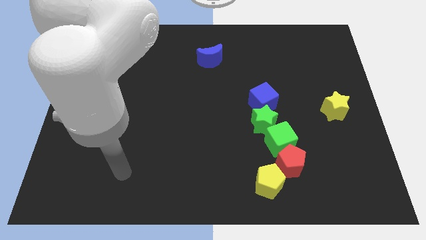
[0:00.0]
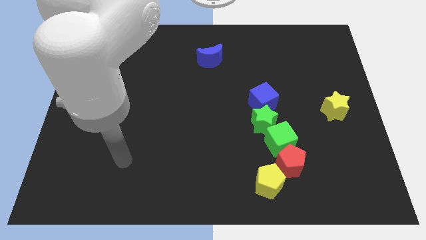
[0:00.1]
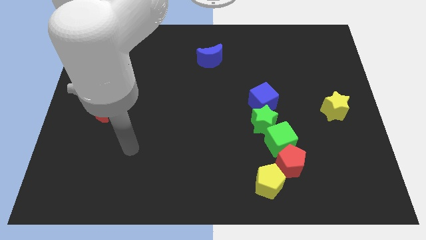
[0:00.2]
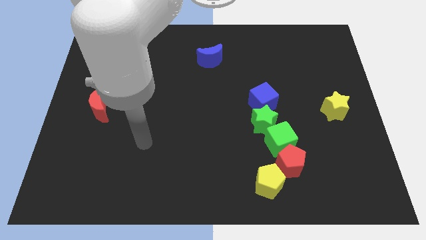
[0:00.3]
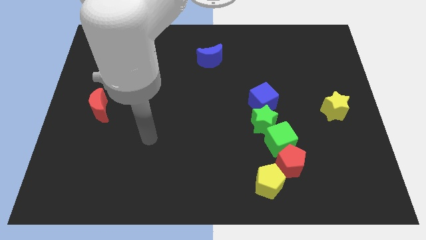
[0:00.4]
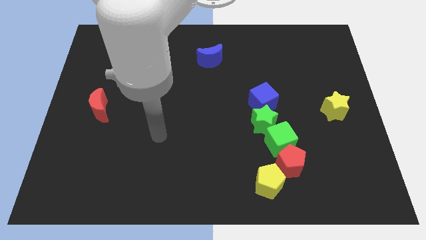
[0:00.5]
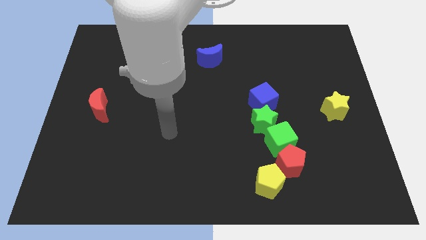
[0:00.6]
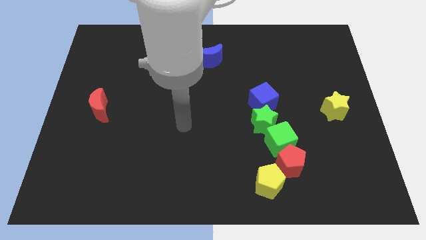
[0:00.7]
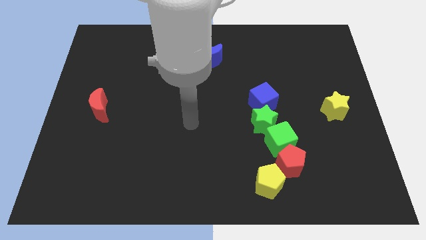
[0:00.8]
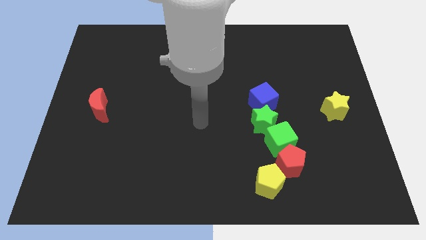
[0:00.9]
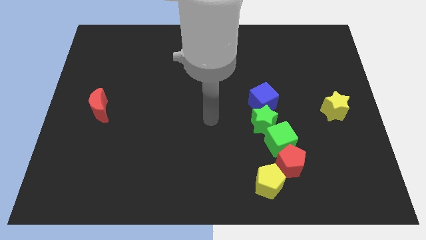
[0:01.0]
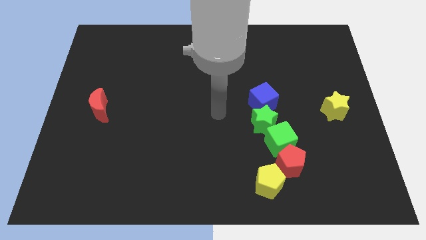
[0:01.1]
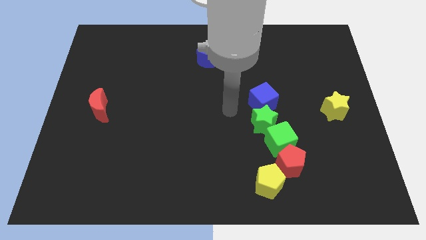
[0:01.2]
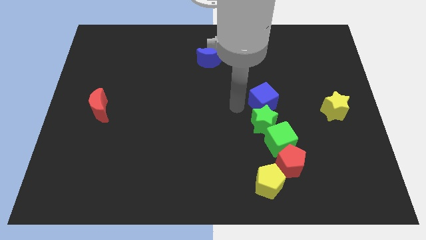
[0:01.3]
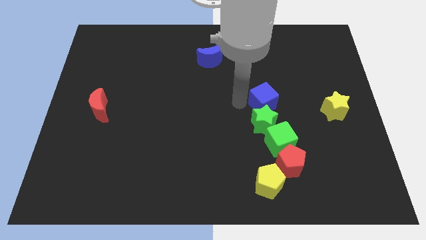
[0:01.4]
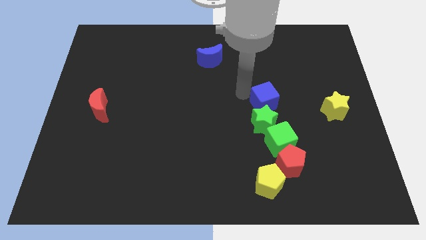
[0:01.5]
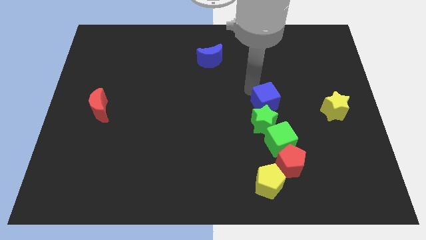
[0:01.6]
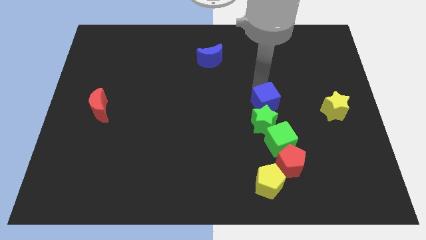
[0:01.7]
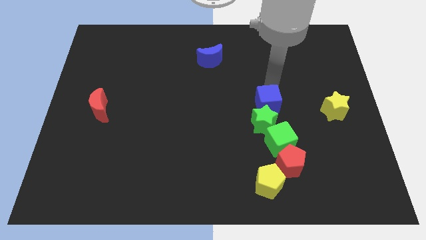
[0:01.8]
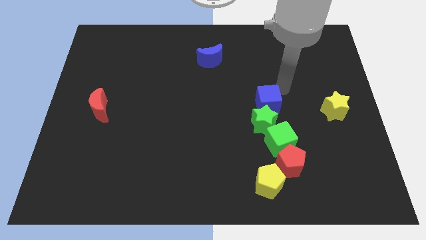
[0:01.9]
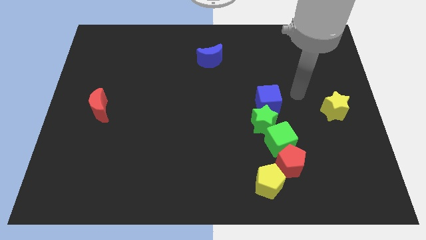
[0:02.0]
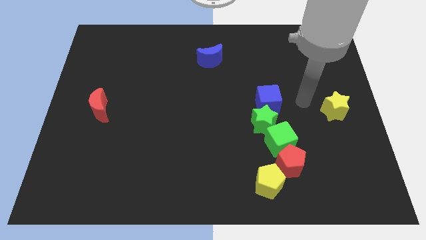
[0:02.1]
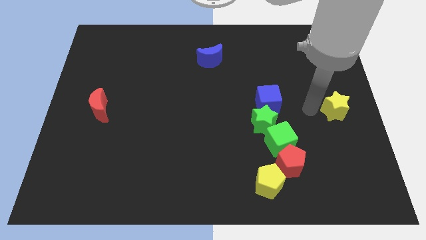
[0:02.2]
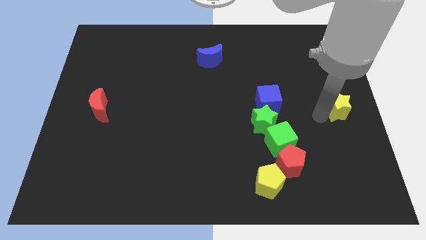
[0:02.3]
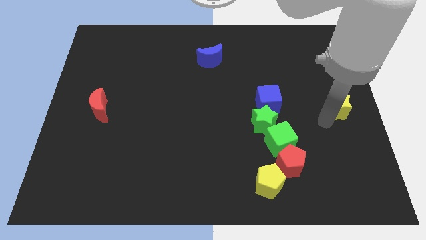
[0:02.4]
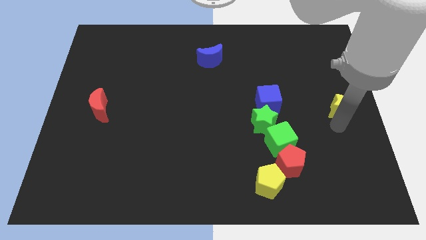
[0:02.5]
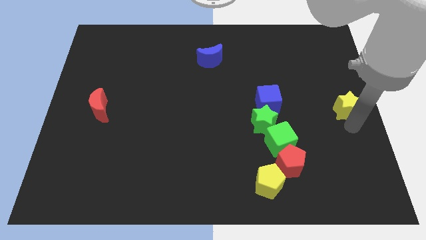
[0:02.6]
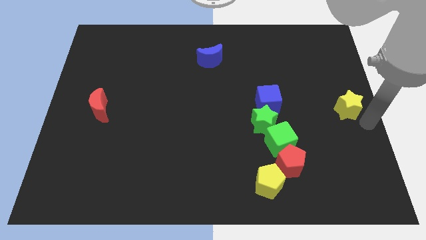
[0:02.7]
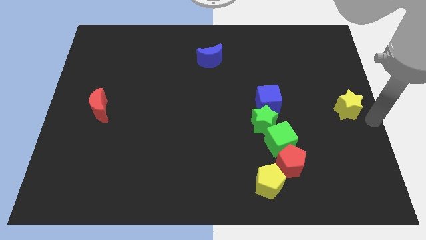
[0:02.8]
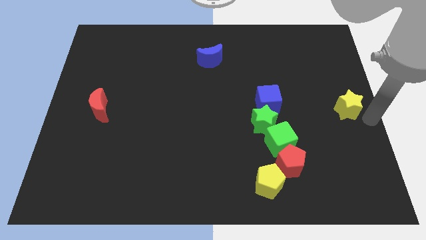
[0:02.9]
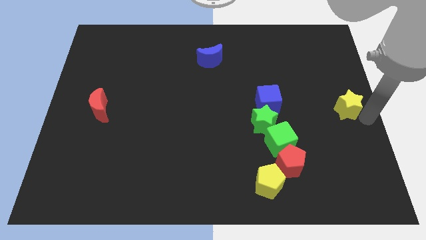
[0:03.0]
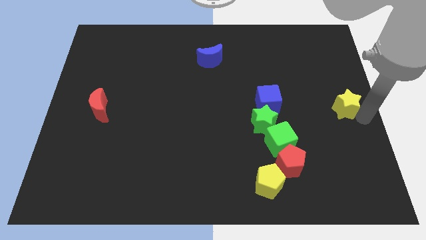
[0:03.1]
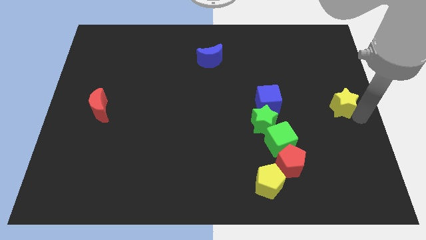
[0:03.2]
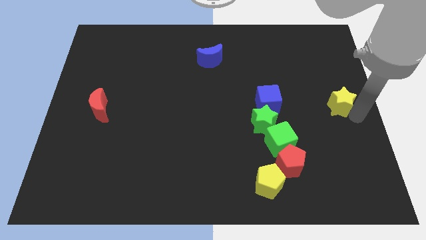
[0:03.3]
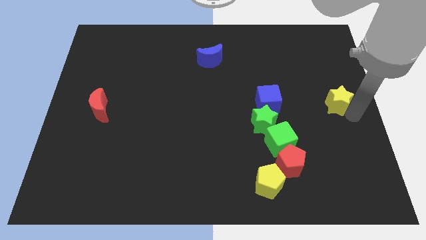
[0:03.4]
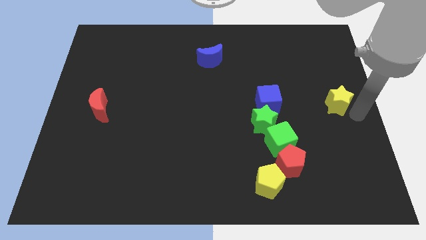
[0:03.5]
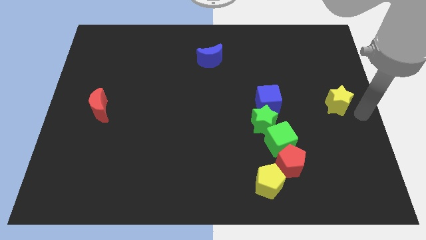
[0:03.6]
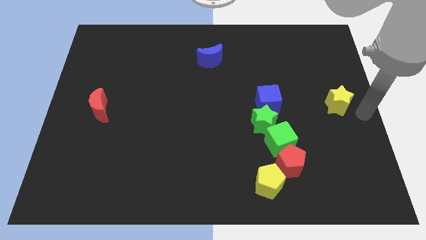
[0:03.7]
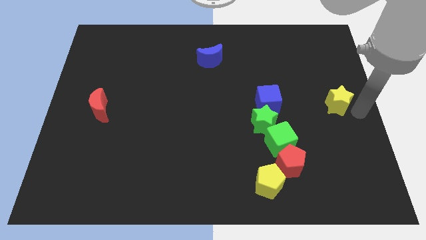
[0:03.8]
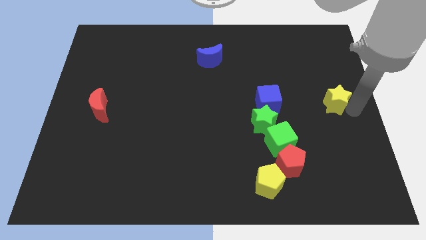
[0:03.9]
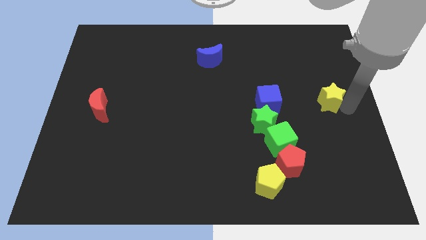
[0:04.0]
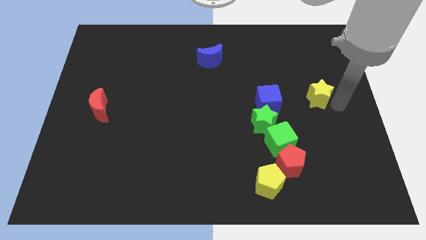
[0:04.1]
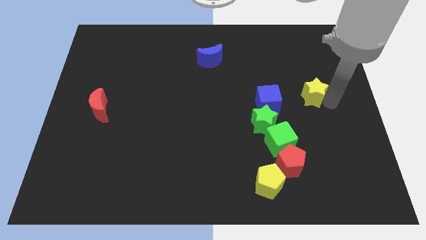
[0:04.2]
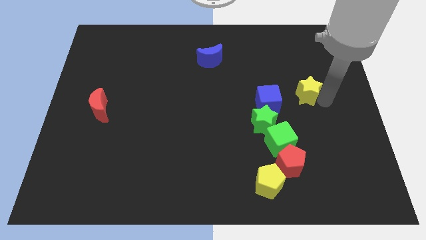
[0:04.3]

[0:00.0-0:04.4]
slightly move the yellow star up and to the left diagonally

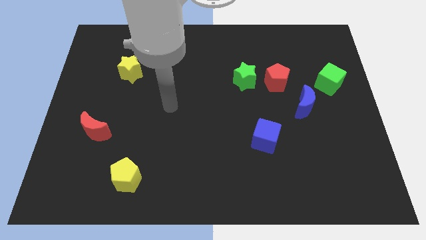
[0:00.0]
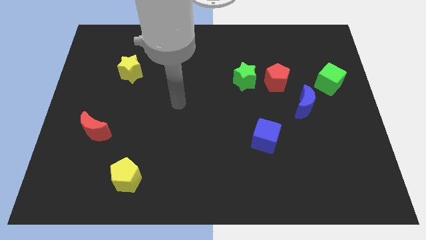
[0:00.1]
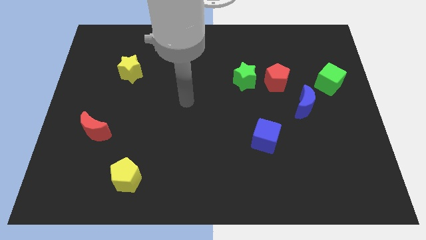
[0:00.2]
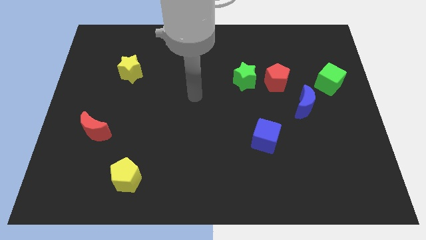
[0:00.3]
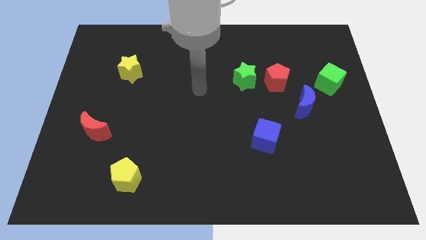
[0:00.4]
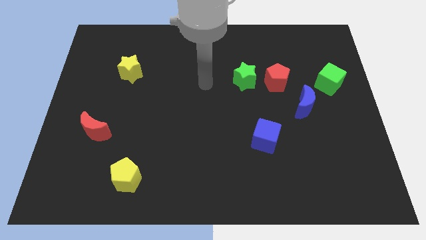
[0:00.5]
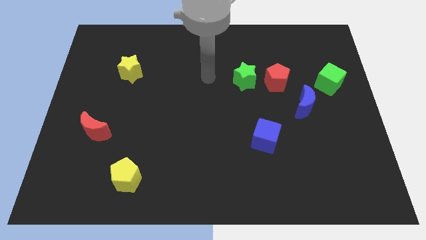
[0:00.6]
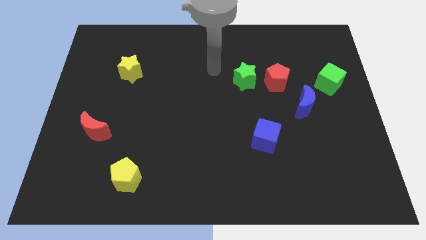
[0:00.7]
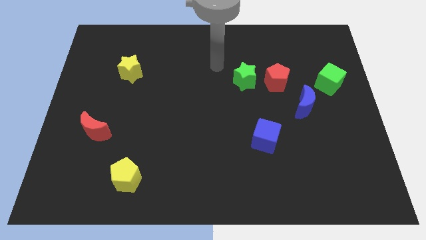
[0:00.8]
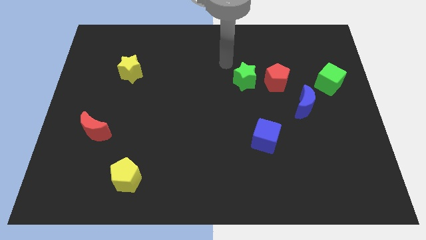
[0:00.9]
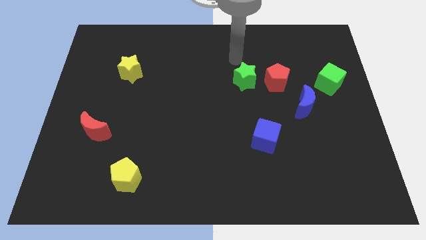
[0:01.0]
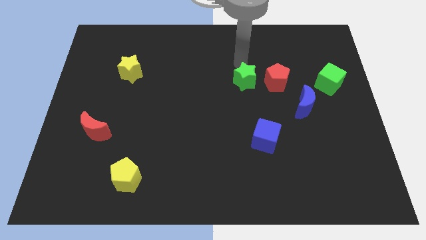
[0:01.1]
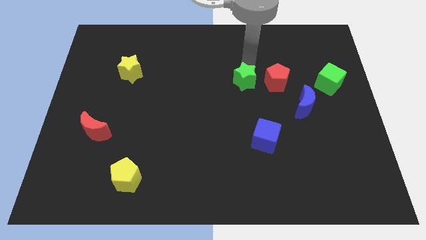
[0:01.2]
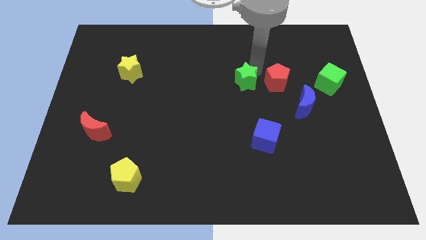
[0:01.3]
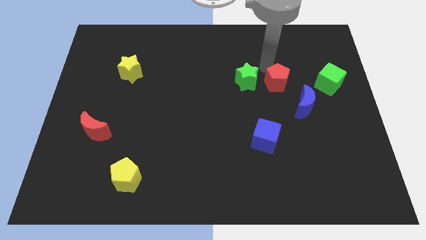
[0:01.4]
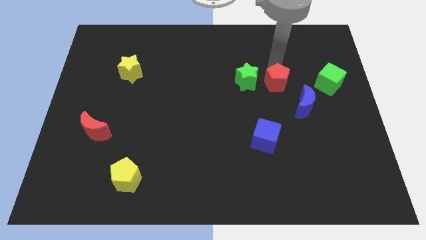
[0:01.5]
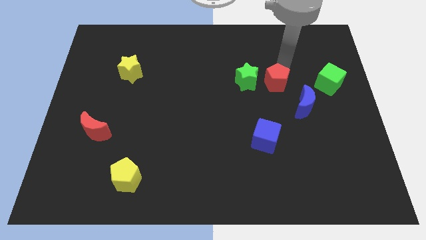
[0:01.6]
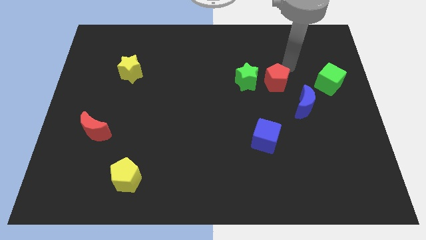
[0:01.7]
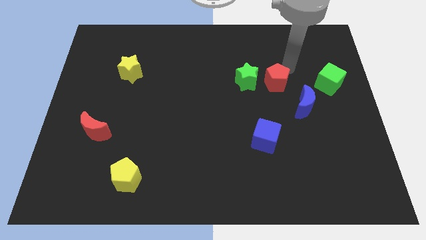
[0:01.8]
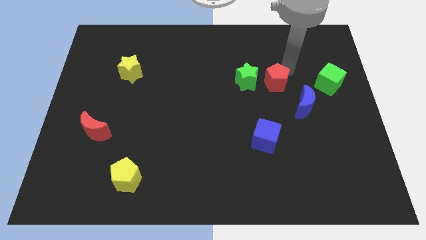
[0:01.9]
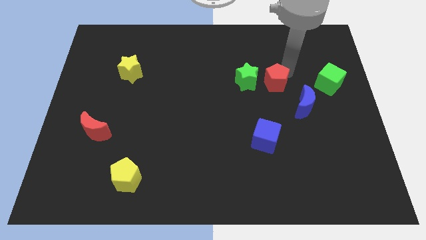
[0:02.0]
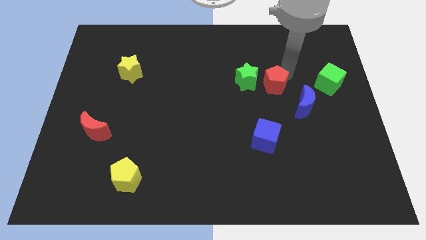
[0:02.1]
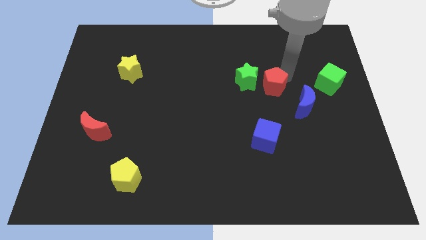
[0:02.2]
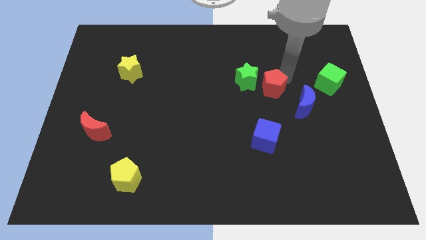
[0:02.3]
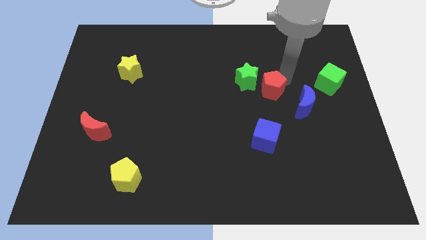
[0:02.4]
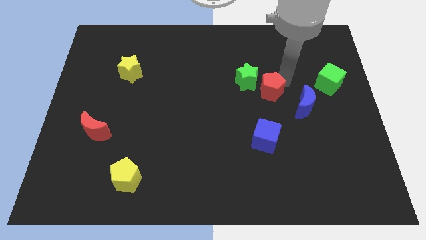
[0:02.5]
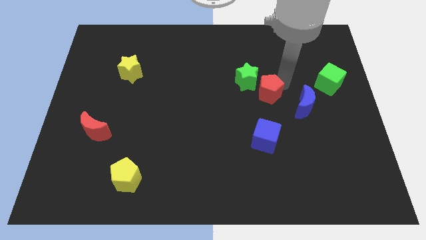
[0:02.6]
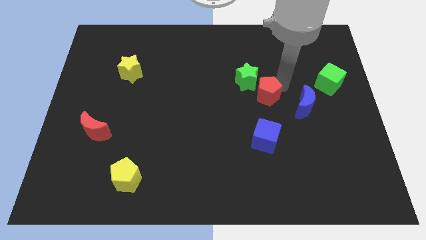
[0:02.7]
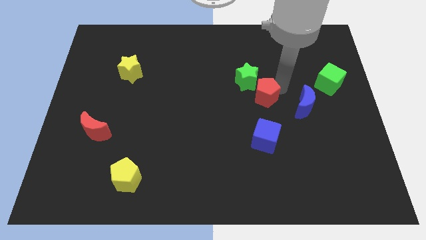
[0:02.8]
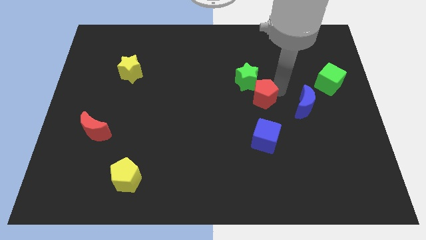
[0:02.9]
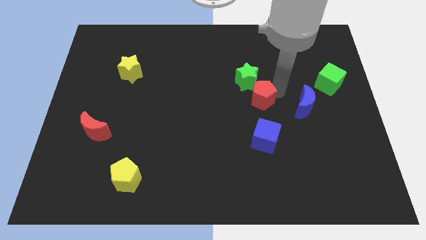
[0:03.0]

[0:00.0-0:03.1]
slightly move the red pentagon down and left
